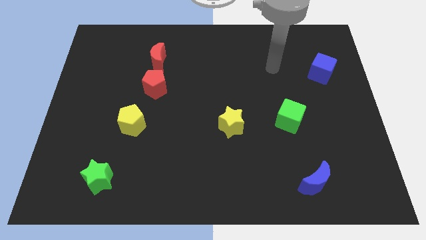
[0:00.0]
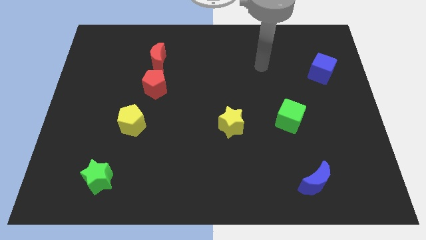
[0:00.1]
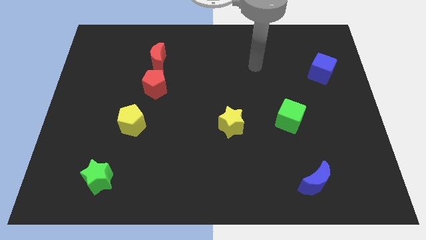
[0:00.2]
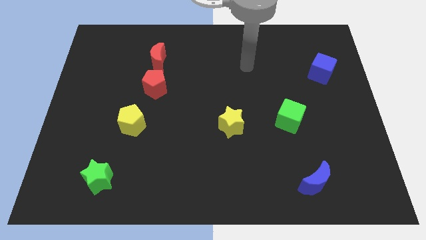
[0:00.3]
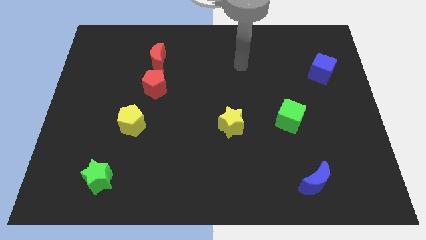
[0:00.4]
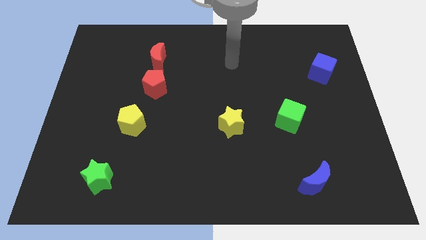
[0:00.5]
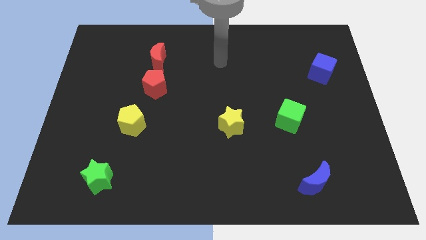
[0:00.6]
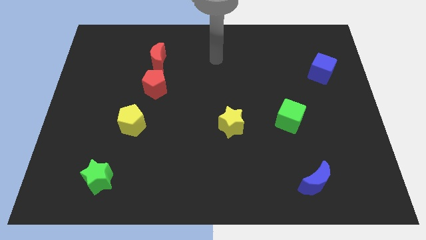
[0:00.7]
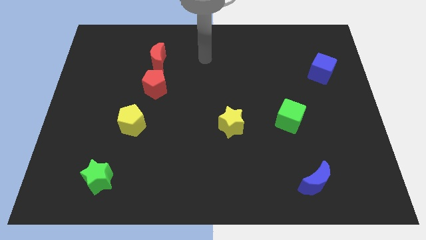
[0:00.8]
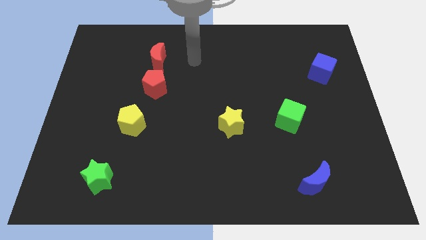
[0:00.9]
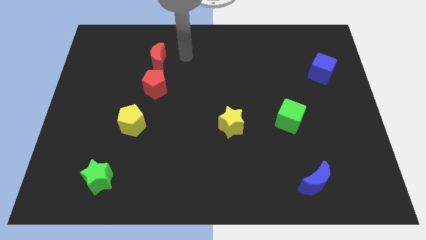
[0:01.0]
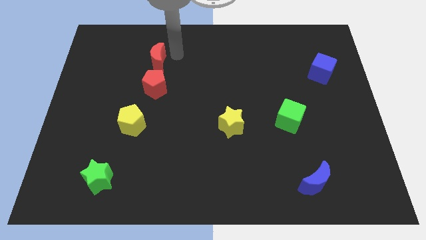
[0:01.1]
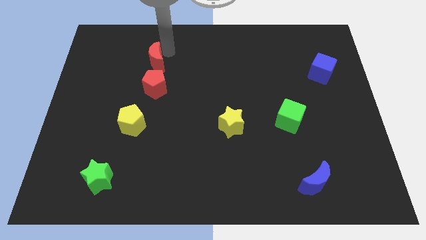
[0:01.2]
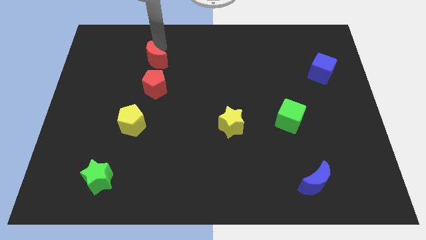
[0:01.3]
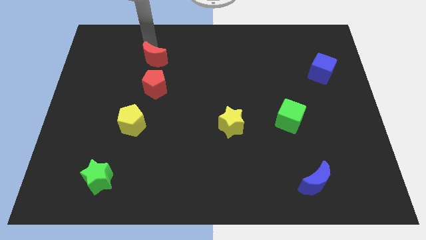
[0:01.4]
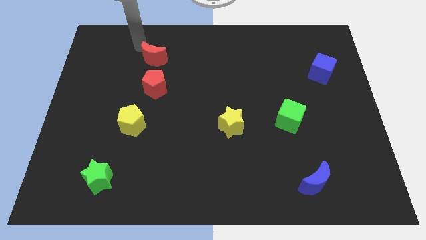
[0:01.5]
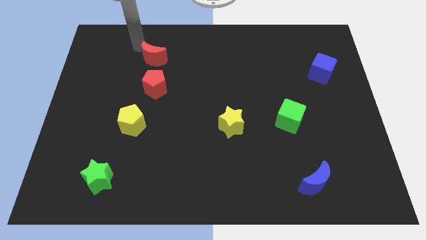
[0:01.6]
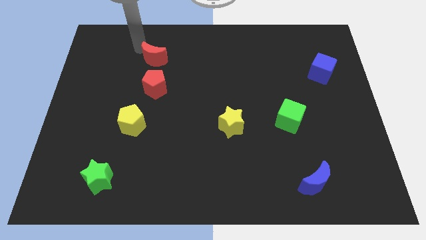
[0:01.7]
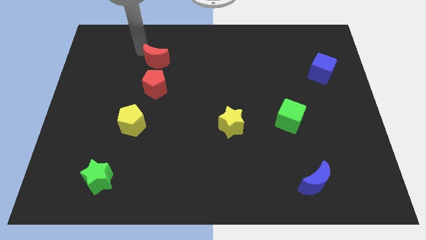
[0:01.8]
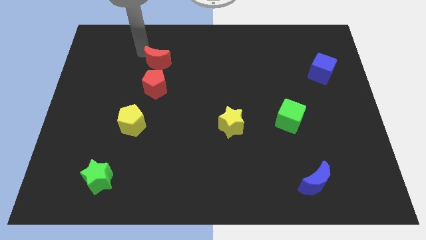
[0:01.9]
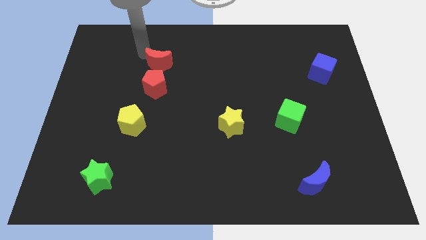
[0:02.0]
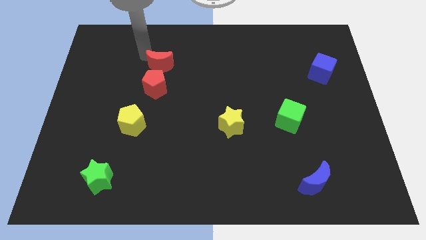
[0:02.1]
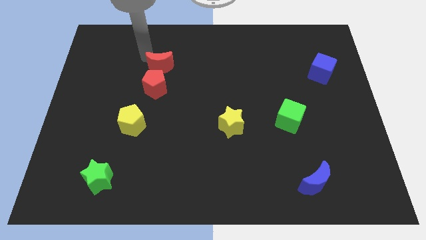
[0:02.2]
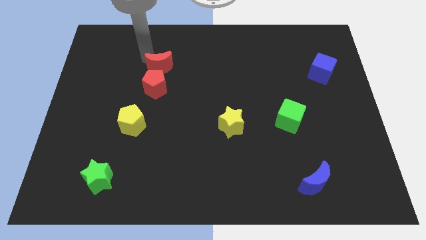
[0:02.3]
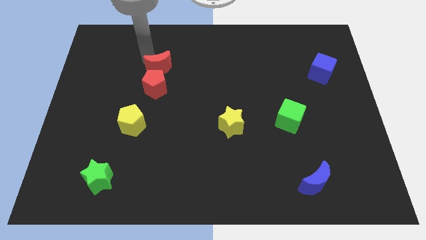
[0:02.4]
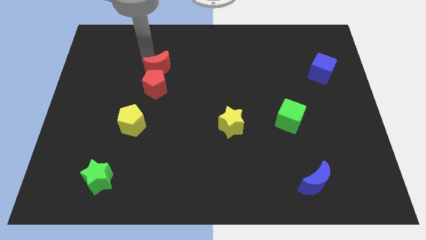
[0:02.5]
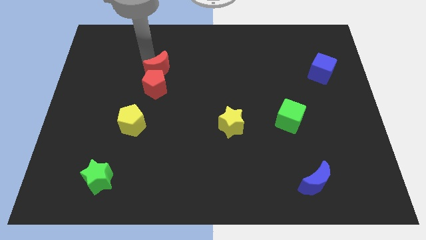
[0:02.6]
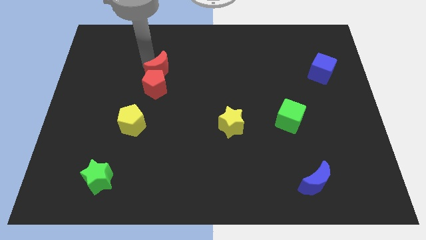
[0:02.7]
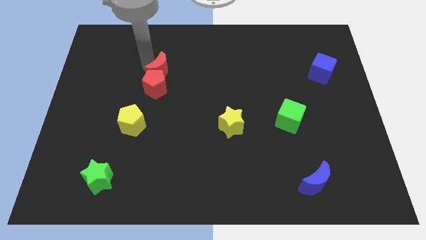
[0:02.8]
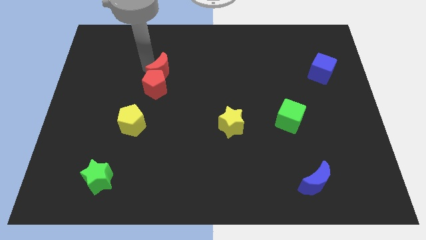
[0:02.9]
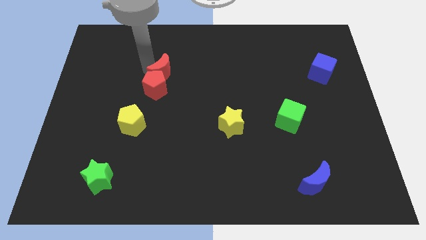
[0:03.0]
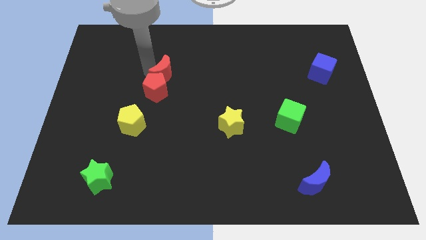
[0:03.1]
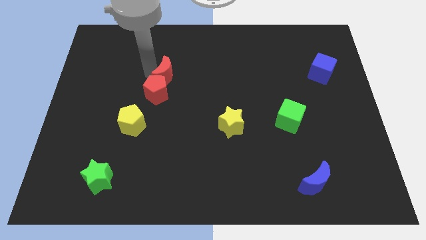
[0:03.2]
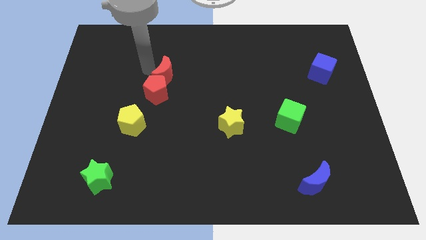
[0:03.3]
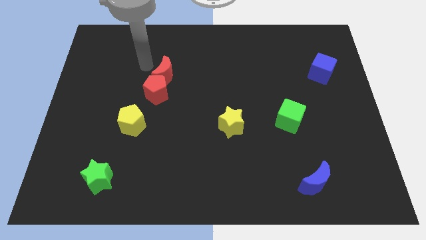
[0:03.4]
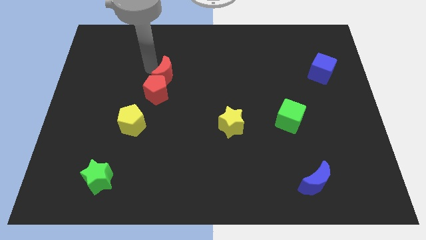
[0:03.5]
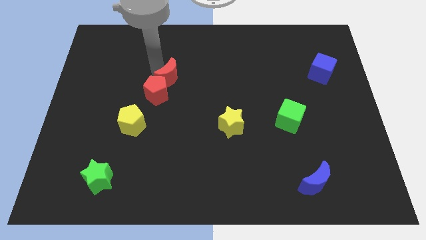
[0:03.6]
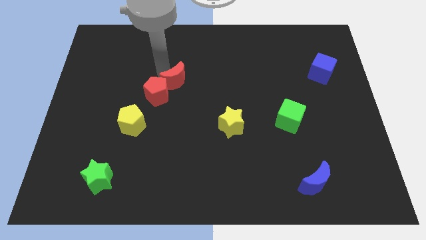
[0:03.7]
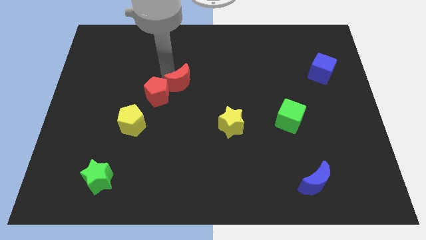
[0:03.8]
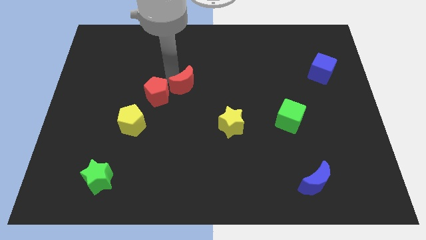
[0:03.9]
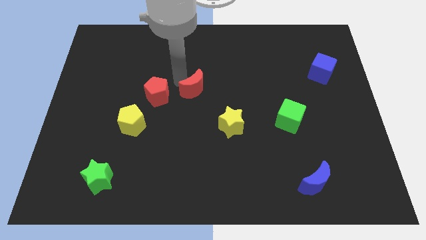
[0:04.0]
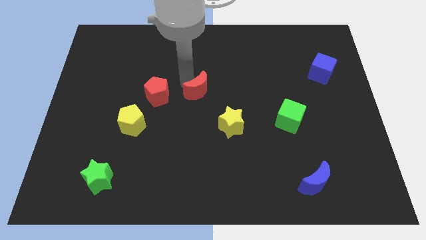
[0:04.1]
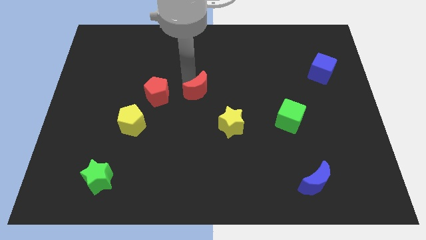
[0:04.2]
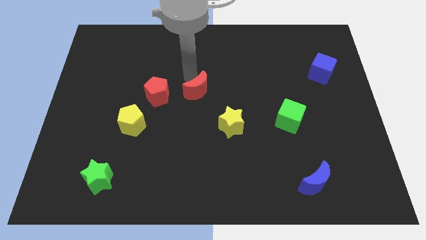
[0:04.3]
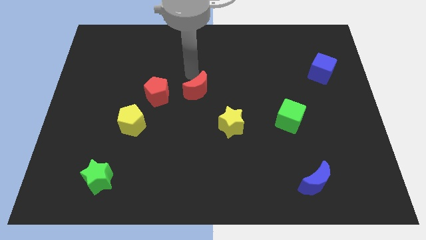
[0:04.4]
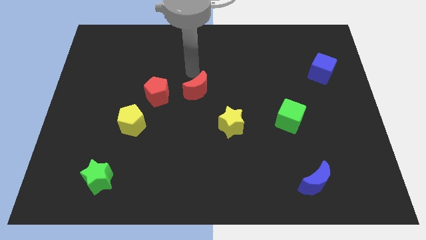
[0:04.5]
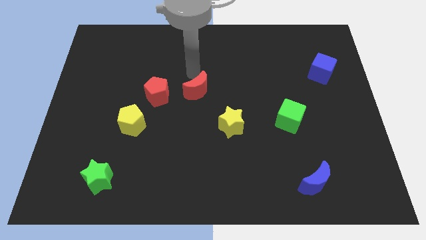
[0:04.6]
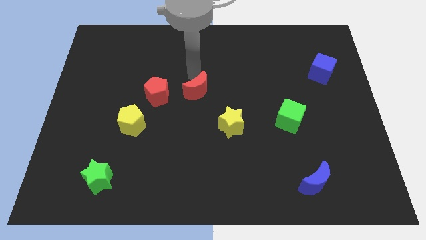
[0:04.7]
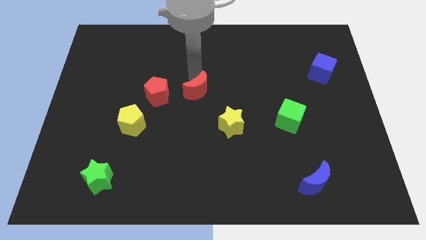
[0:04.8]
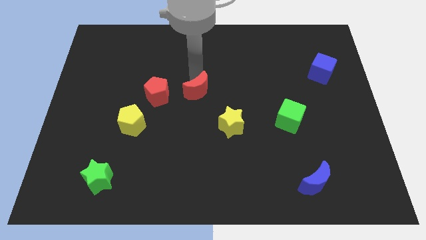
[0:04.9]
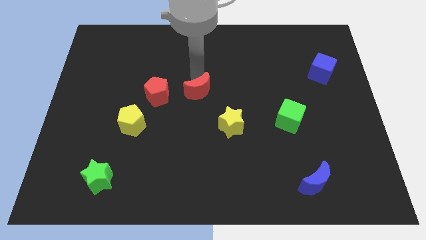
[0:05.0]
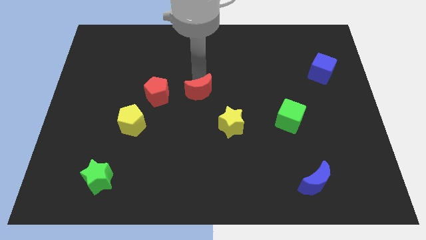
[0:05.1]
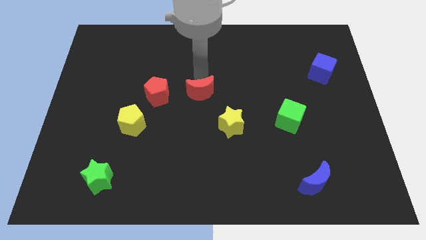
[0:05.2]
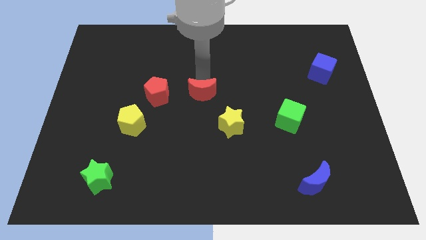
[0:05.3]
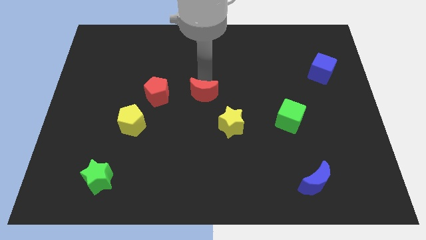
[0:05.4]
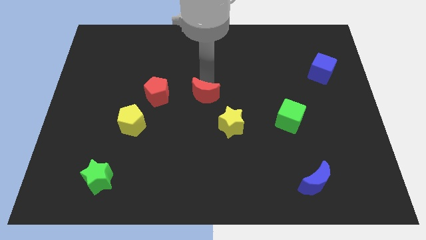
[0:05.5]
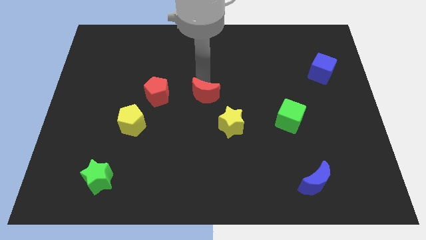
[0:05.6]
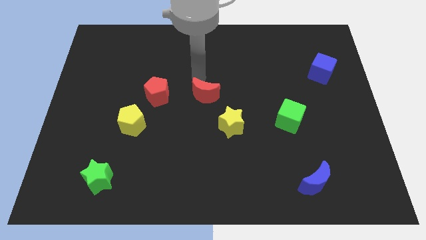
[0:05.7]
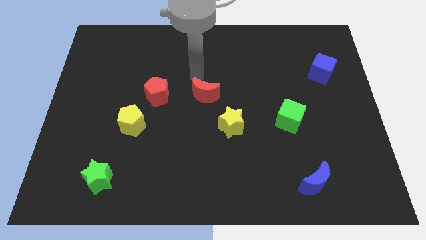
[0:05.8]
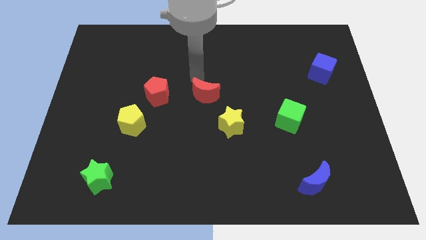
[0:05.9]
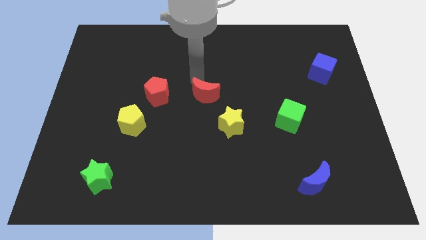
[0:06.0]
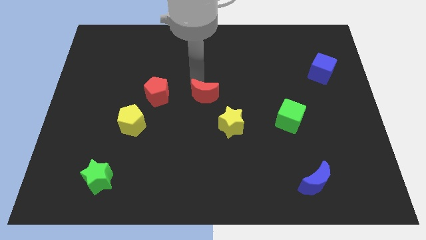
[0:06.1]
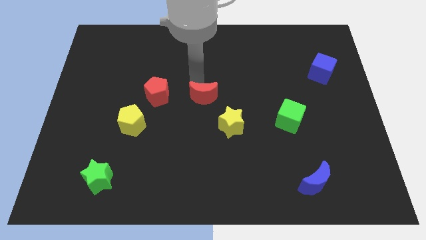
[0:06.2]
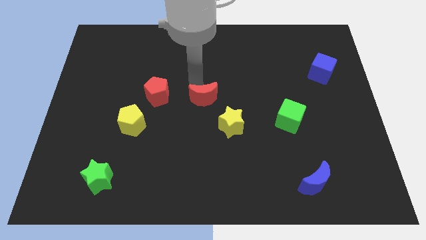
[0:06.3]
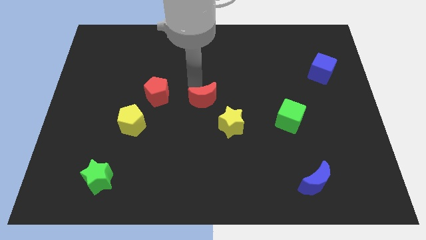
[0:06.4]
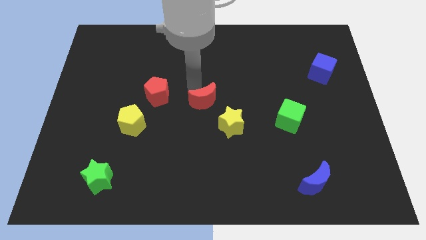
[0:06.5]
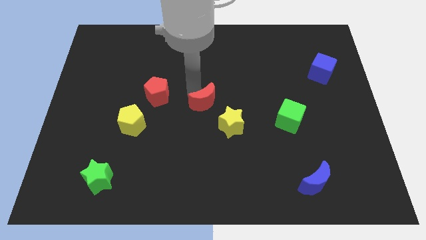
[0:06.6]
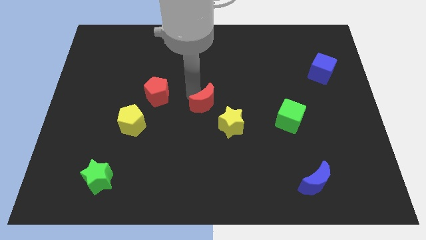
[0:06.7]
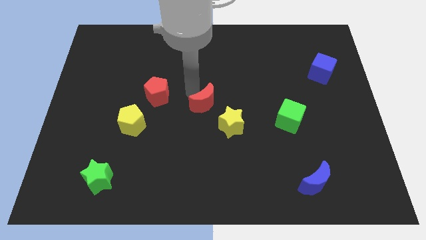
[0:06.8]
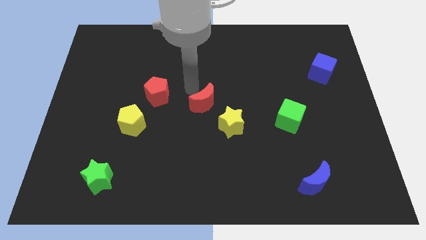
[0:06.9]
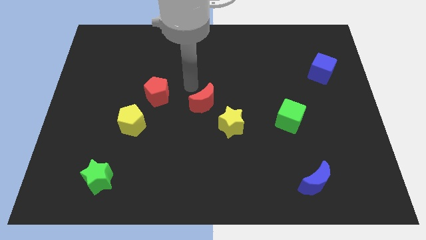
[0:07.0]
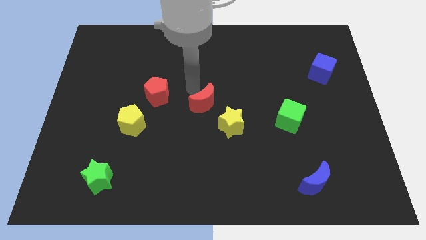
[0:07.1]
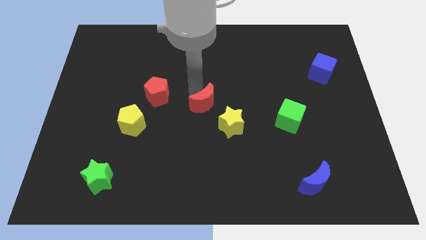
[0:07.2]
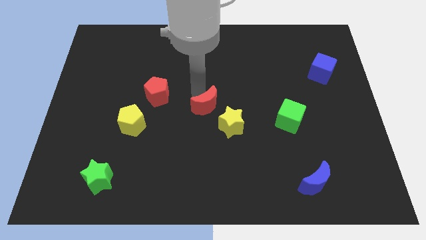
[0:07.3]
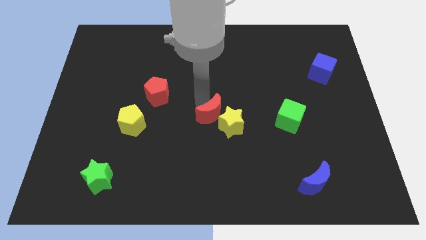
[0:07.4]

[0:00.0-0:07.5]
slide the red moon to the yellow star
